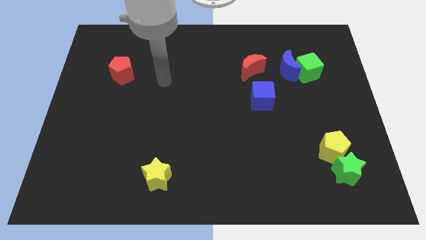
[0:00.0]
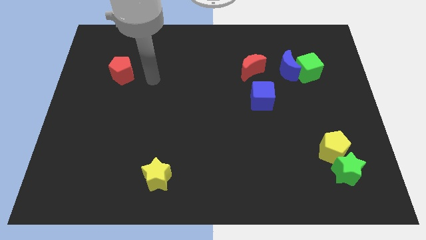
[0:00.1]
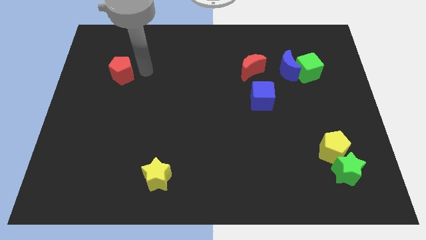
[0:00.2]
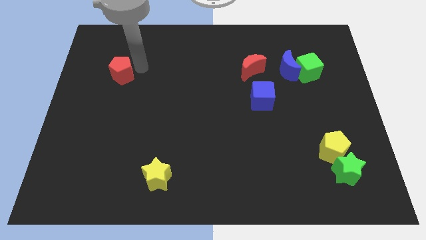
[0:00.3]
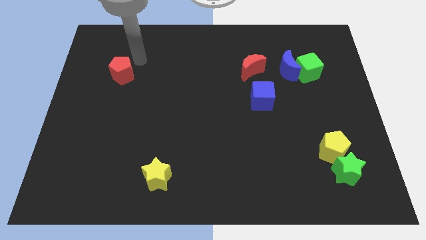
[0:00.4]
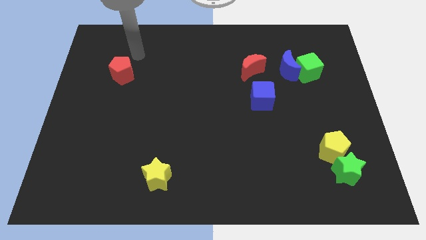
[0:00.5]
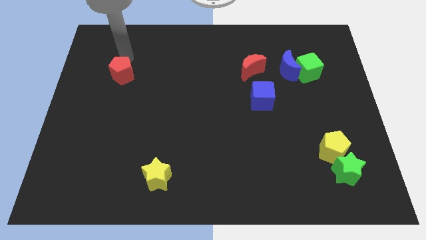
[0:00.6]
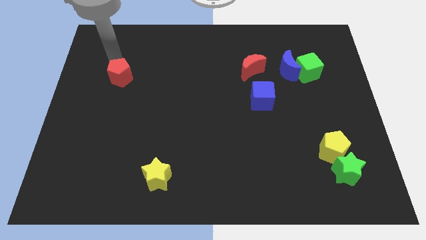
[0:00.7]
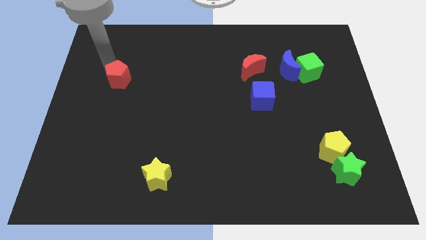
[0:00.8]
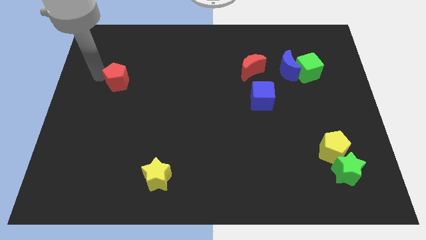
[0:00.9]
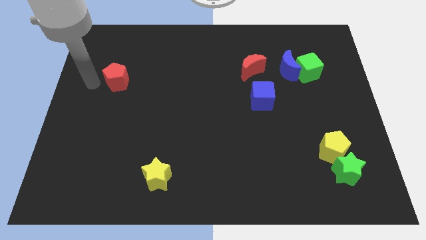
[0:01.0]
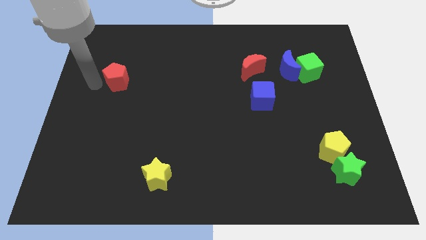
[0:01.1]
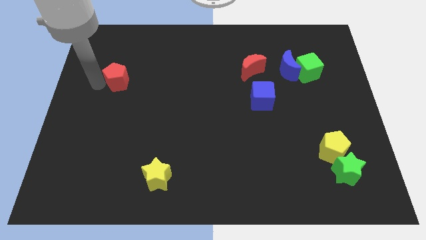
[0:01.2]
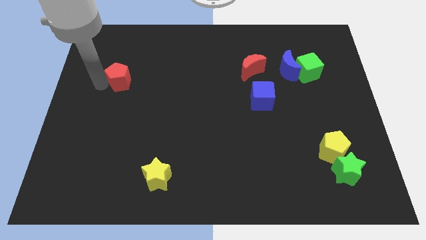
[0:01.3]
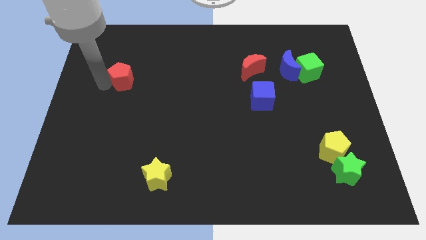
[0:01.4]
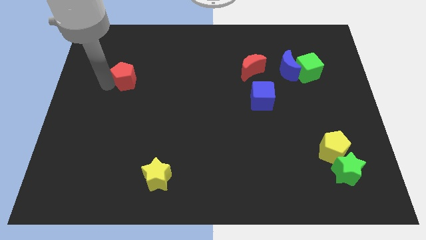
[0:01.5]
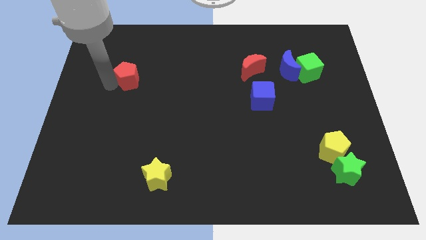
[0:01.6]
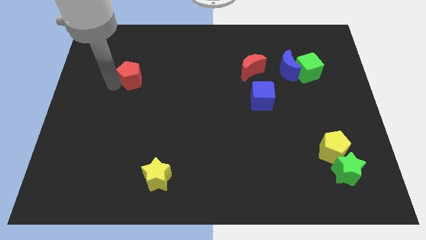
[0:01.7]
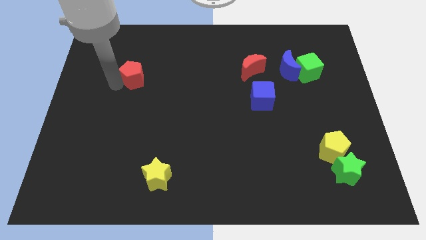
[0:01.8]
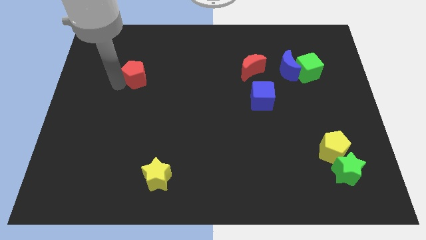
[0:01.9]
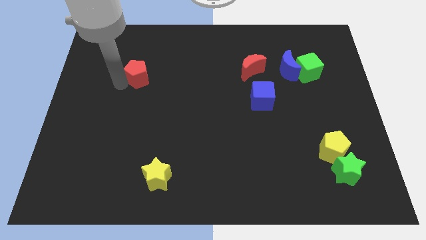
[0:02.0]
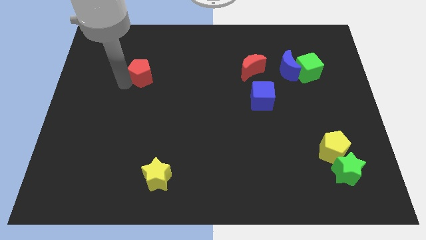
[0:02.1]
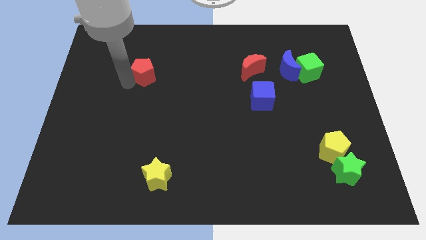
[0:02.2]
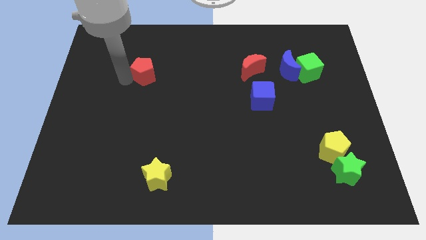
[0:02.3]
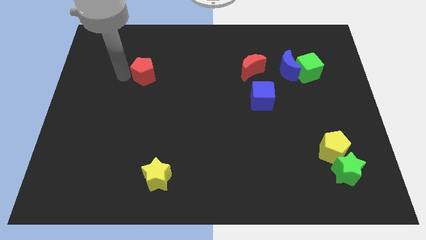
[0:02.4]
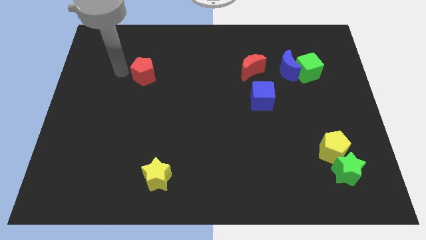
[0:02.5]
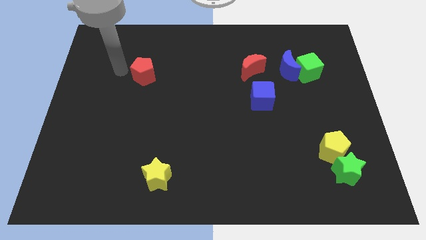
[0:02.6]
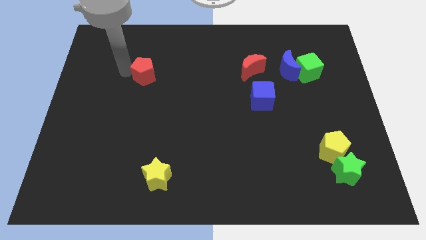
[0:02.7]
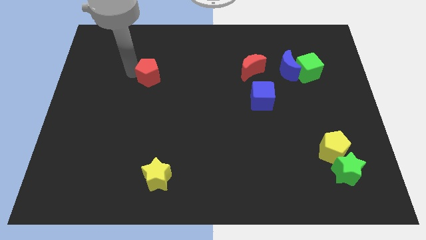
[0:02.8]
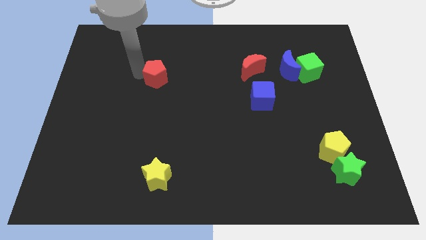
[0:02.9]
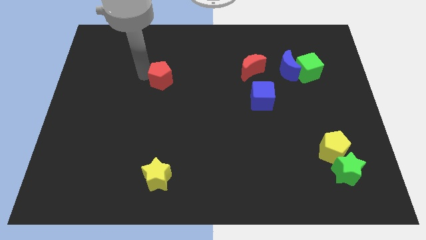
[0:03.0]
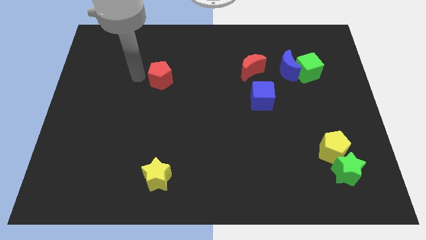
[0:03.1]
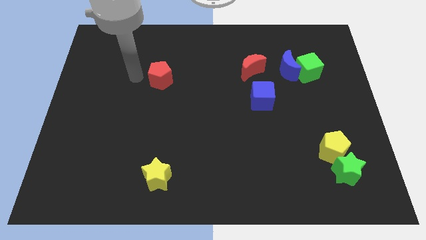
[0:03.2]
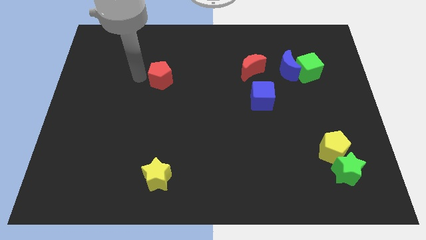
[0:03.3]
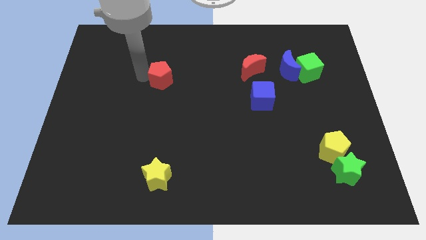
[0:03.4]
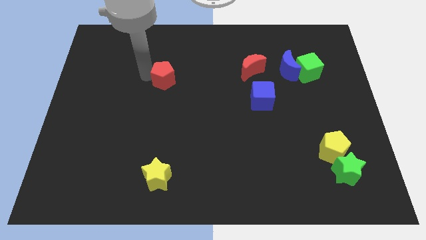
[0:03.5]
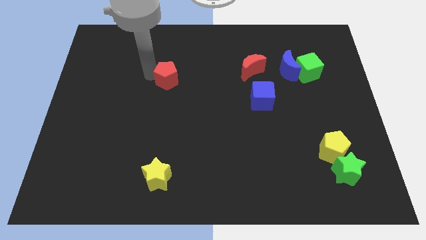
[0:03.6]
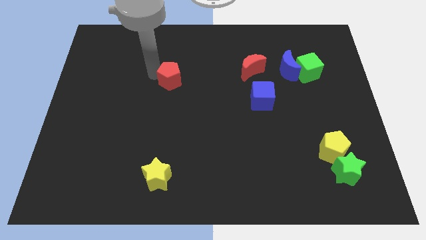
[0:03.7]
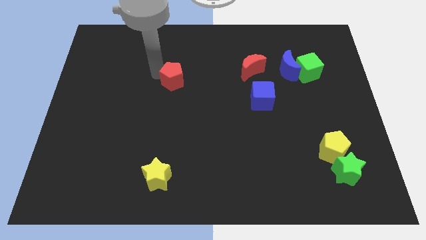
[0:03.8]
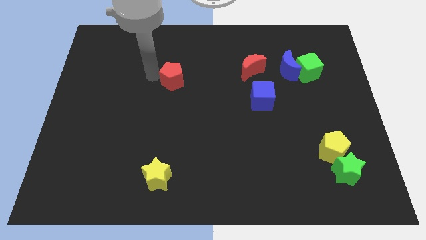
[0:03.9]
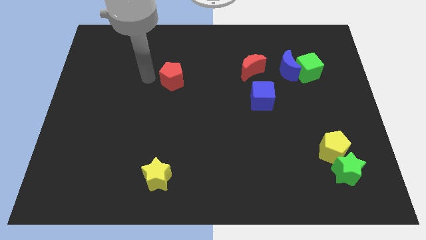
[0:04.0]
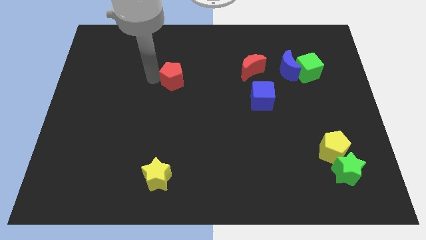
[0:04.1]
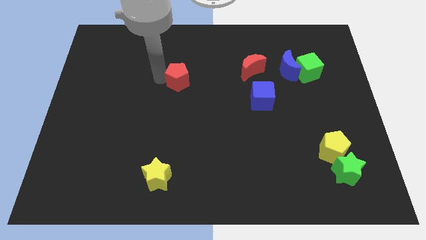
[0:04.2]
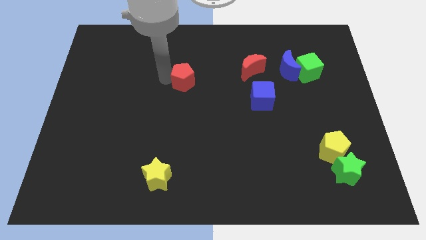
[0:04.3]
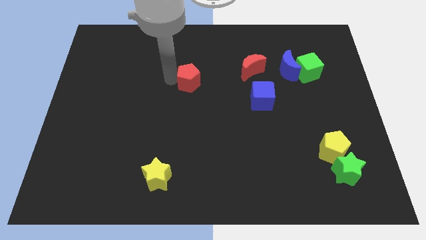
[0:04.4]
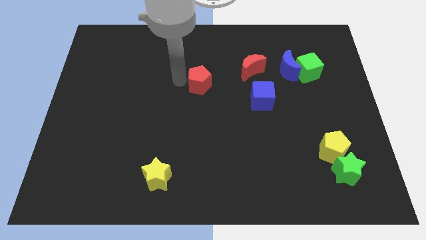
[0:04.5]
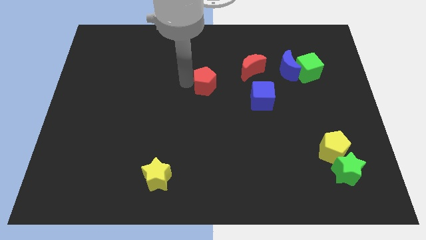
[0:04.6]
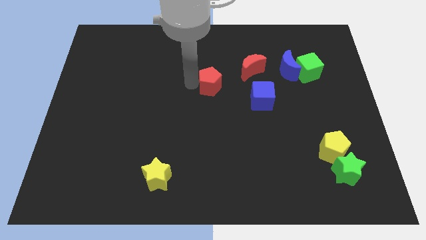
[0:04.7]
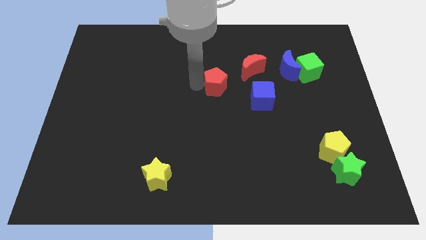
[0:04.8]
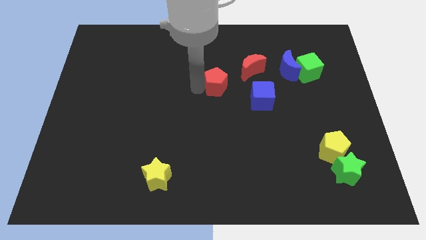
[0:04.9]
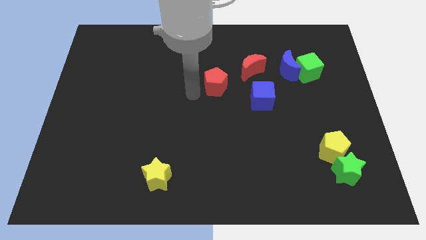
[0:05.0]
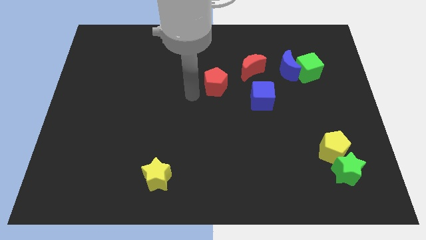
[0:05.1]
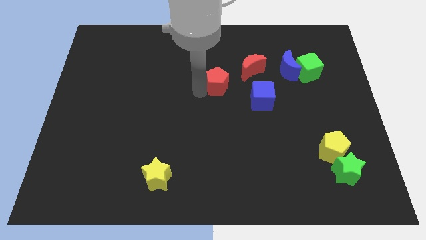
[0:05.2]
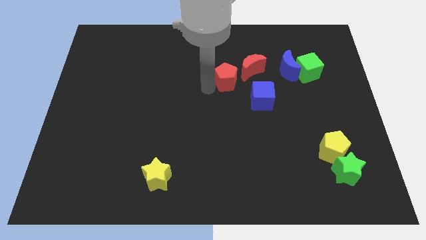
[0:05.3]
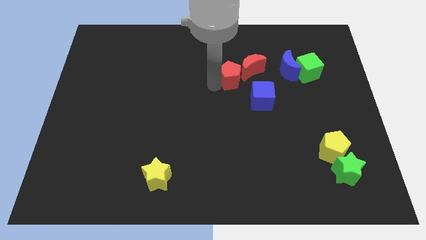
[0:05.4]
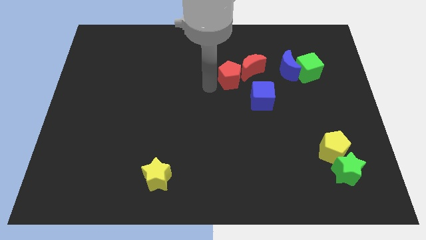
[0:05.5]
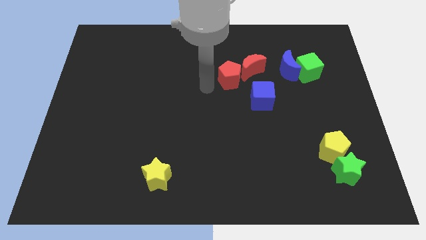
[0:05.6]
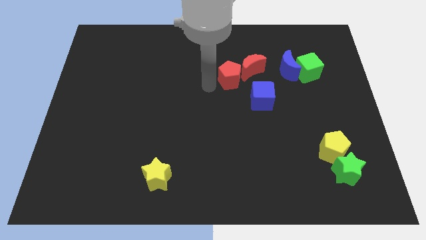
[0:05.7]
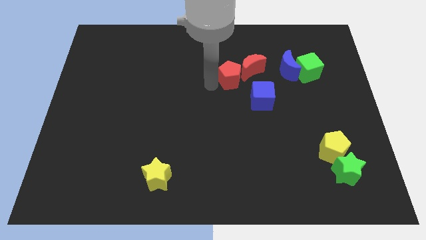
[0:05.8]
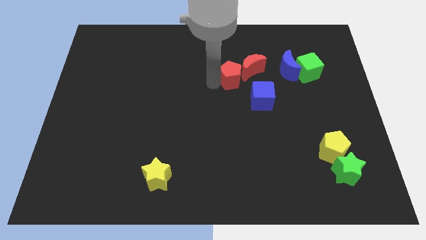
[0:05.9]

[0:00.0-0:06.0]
push the red pentagon close to the red moon
